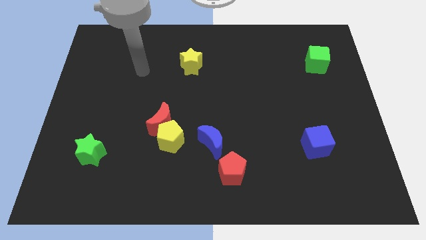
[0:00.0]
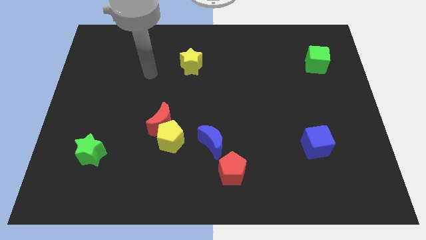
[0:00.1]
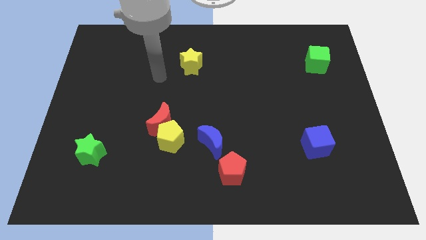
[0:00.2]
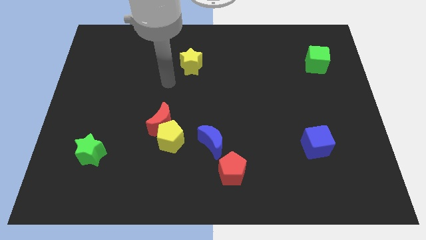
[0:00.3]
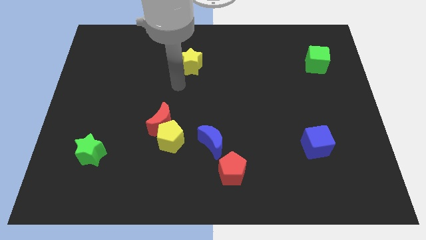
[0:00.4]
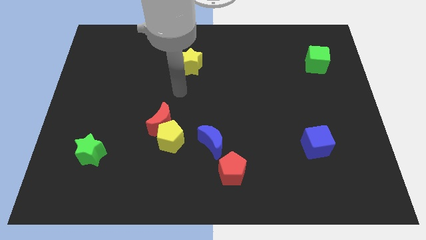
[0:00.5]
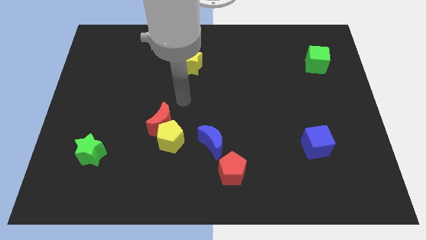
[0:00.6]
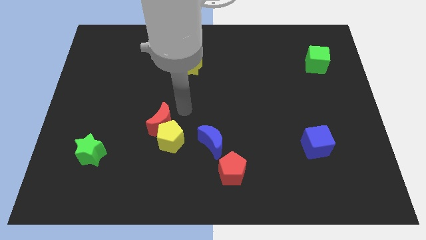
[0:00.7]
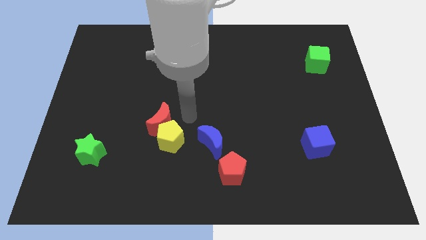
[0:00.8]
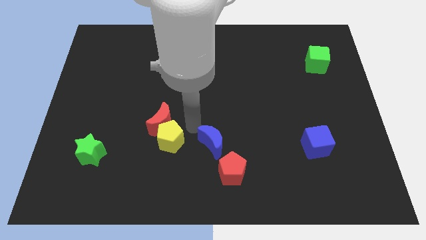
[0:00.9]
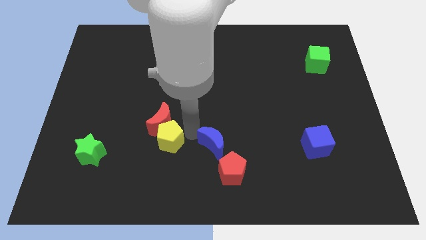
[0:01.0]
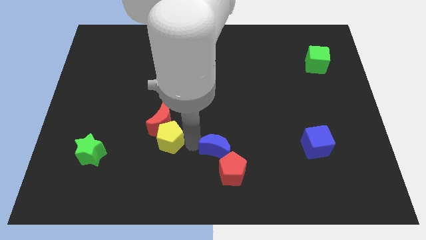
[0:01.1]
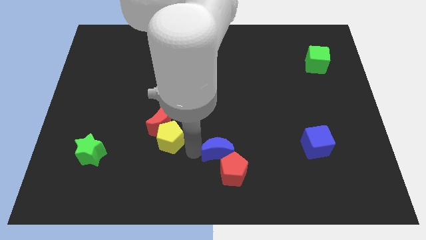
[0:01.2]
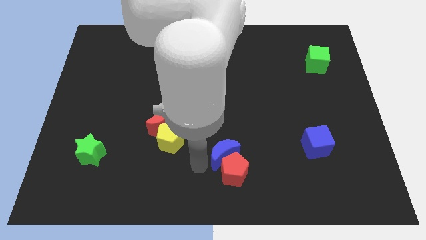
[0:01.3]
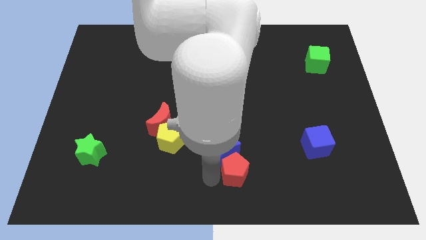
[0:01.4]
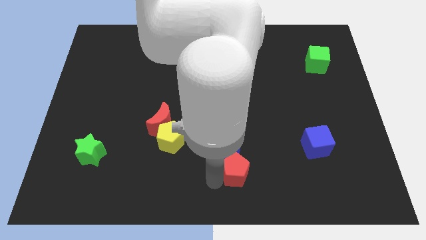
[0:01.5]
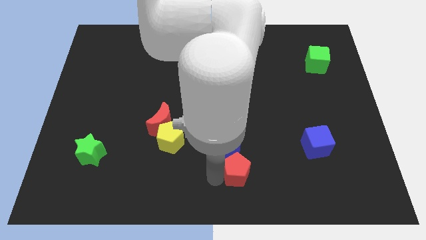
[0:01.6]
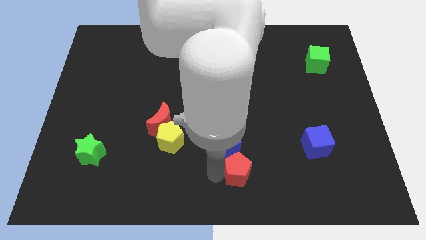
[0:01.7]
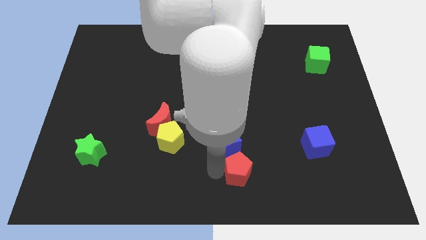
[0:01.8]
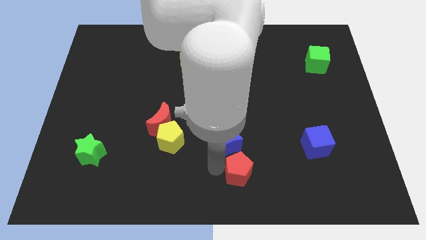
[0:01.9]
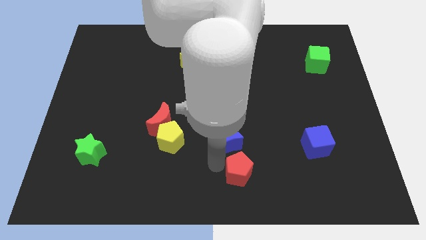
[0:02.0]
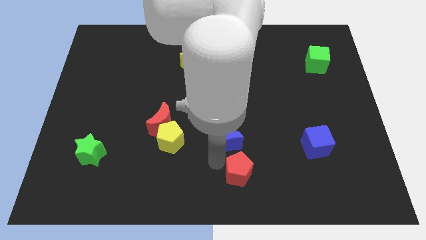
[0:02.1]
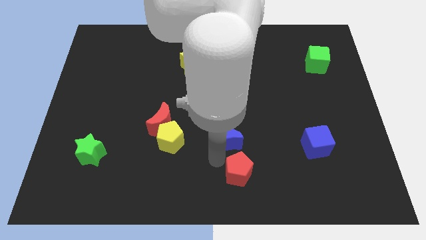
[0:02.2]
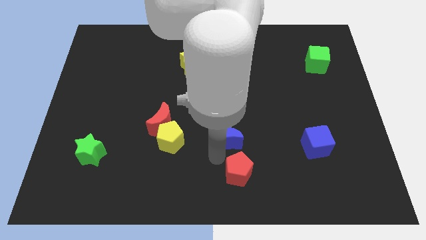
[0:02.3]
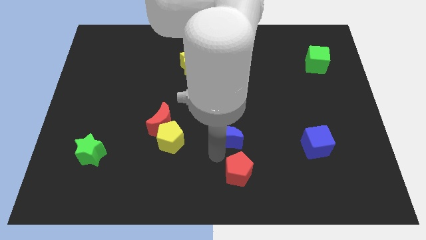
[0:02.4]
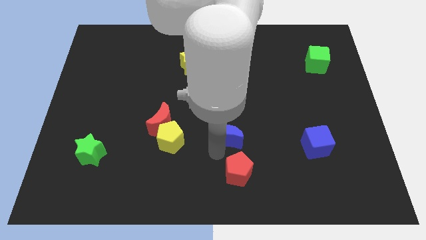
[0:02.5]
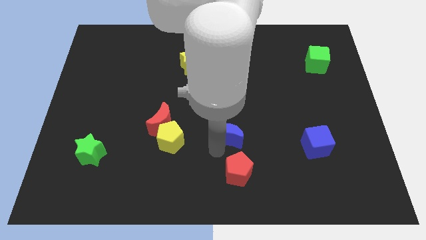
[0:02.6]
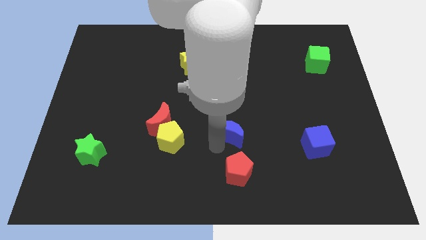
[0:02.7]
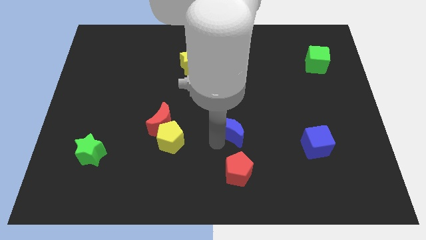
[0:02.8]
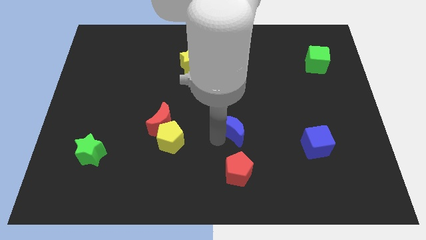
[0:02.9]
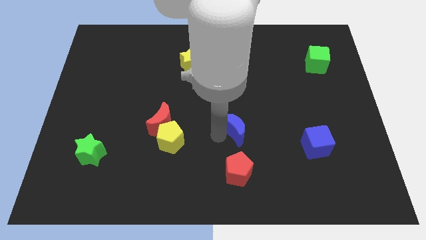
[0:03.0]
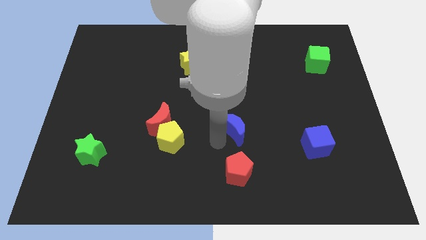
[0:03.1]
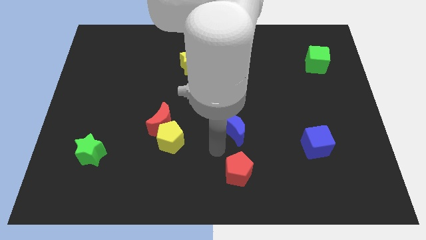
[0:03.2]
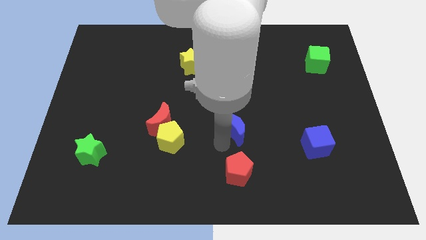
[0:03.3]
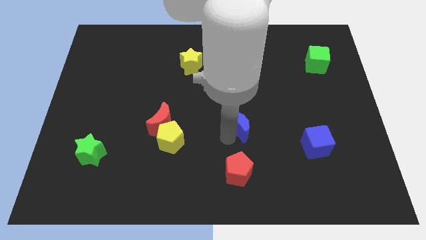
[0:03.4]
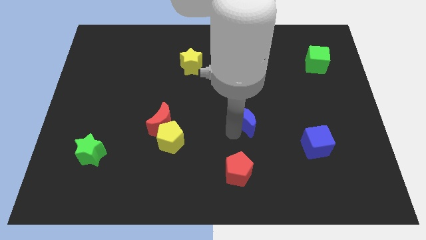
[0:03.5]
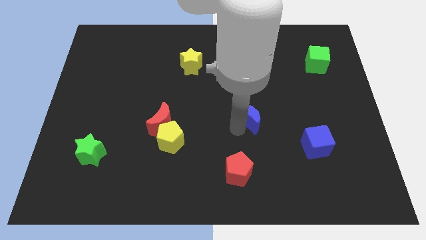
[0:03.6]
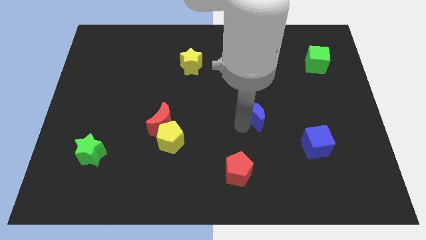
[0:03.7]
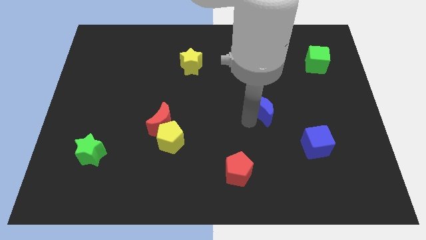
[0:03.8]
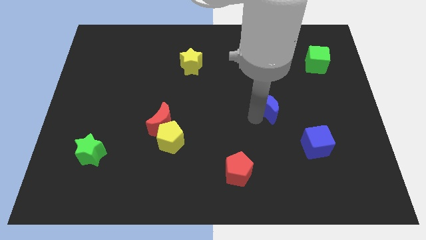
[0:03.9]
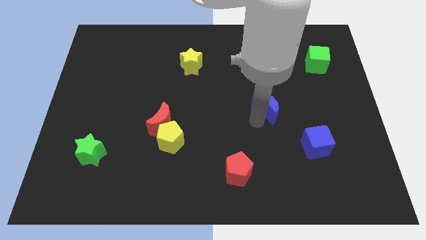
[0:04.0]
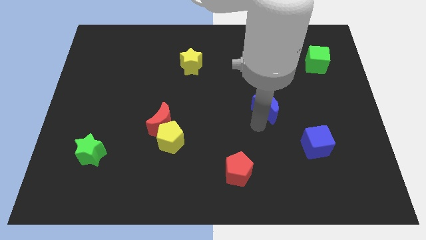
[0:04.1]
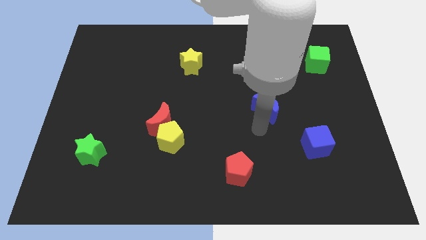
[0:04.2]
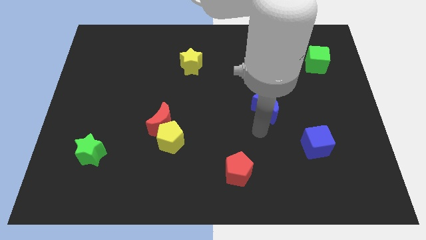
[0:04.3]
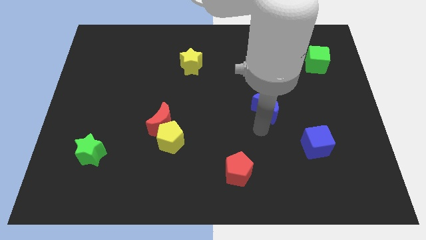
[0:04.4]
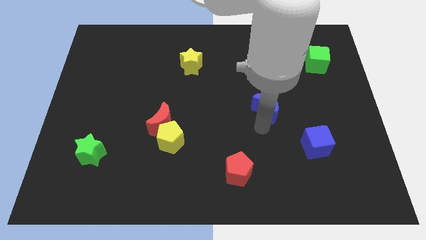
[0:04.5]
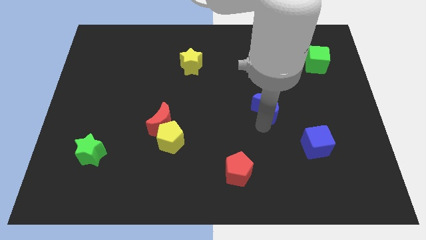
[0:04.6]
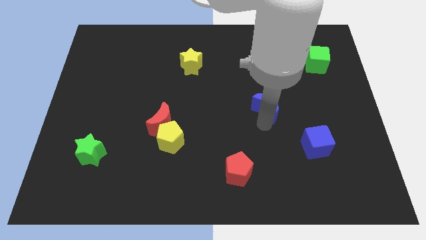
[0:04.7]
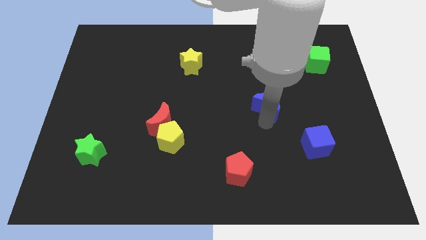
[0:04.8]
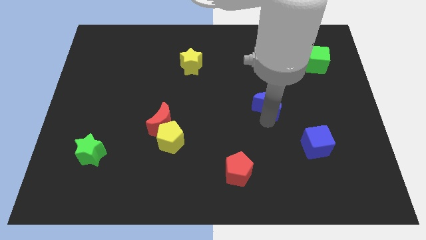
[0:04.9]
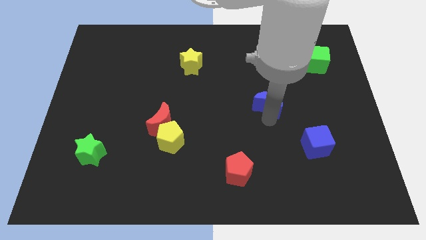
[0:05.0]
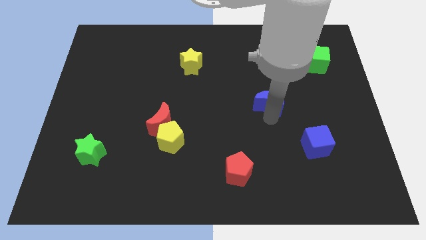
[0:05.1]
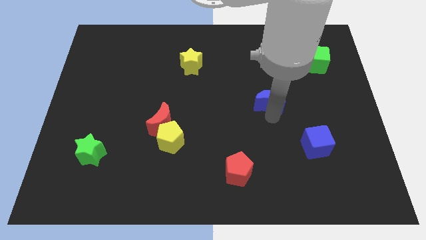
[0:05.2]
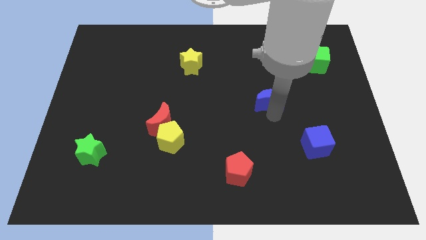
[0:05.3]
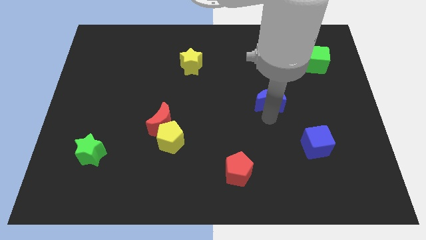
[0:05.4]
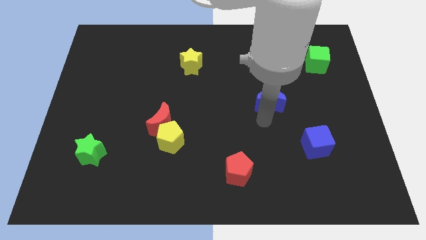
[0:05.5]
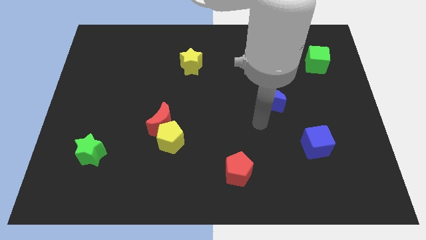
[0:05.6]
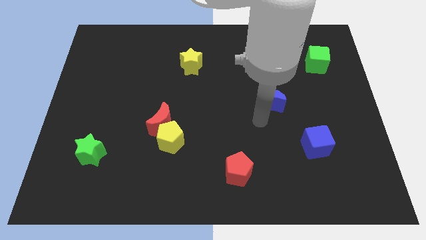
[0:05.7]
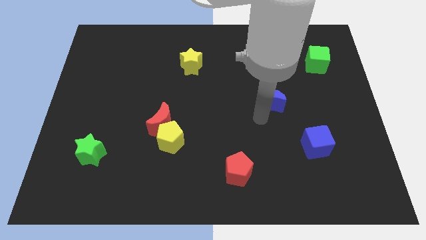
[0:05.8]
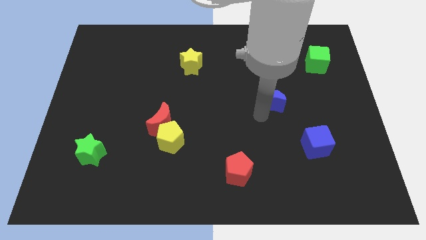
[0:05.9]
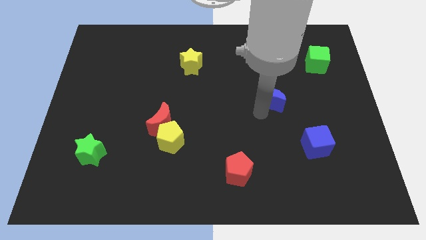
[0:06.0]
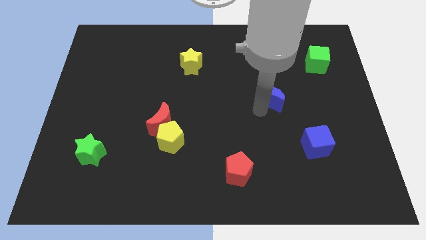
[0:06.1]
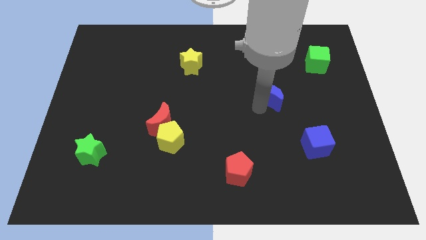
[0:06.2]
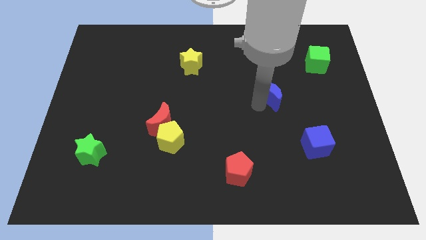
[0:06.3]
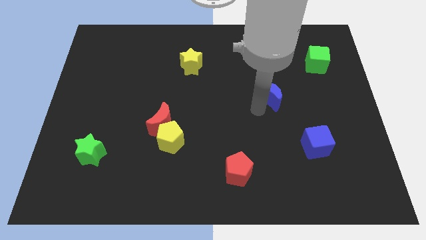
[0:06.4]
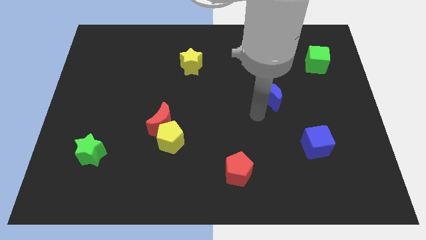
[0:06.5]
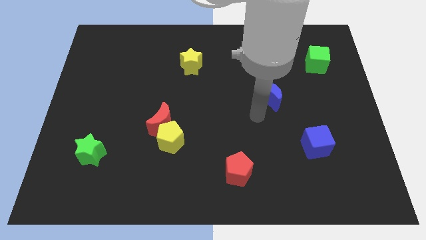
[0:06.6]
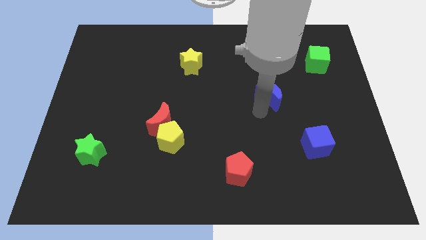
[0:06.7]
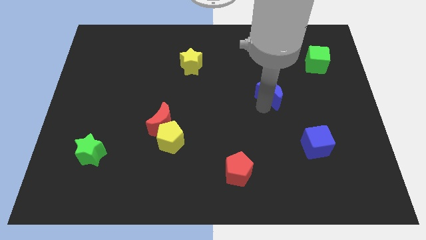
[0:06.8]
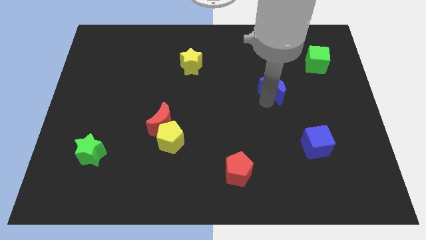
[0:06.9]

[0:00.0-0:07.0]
move the blue moon up and to the right

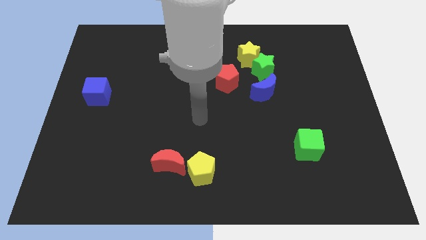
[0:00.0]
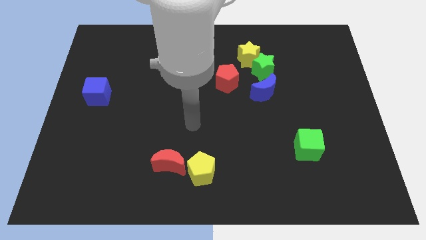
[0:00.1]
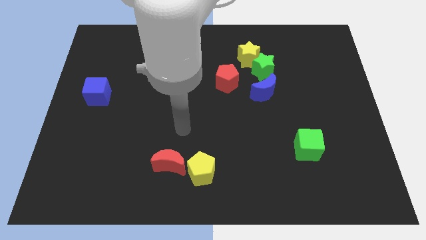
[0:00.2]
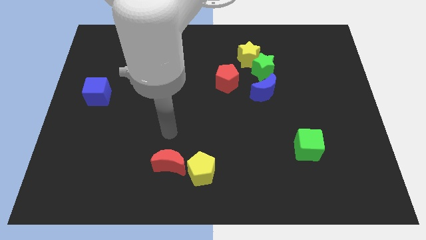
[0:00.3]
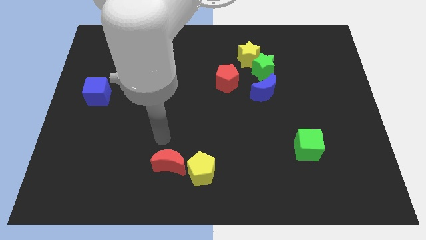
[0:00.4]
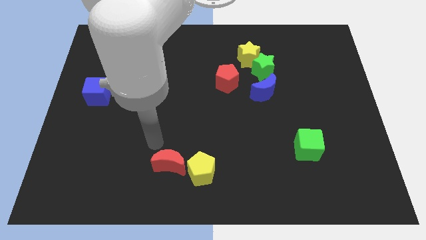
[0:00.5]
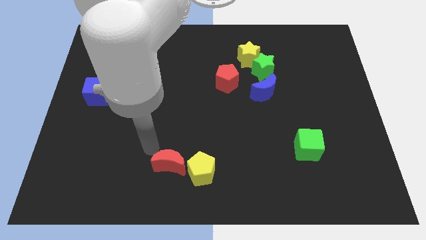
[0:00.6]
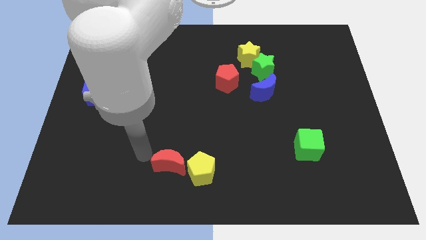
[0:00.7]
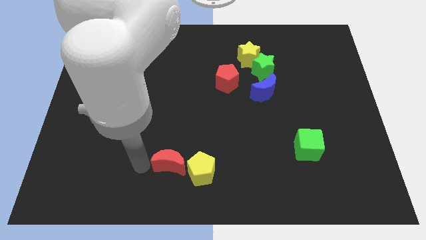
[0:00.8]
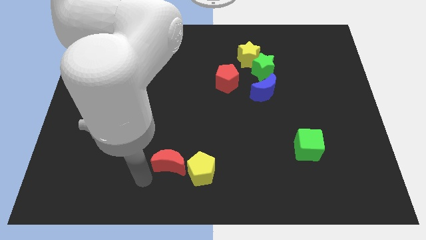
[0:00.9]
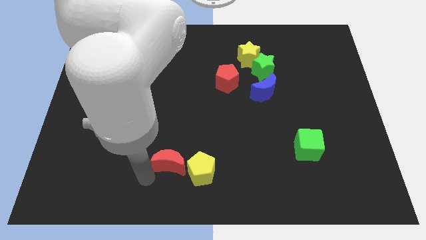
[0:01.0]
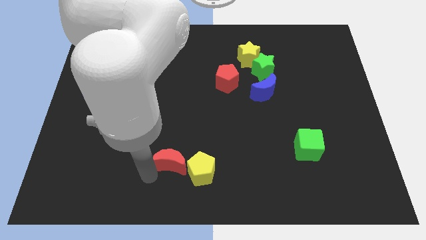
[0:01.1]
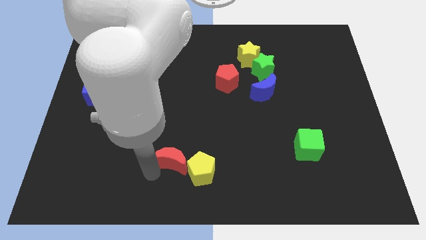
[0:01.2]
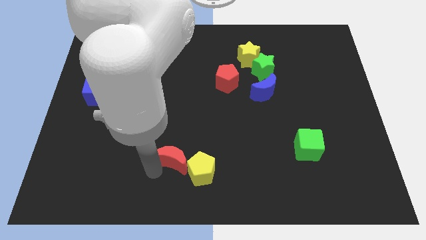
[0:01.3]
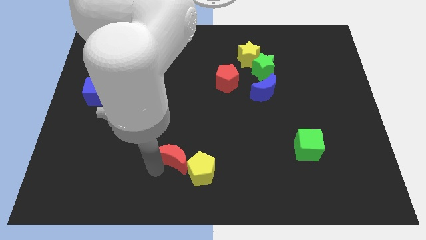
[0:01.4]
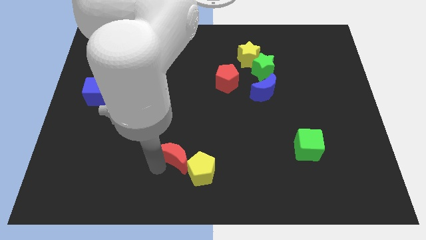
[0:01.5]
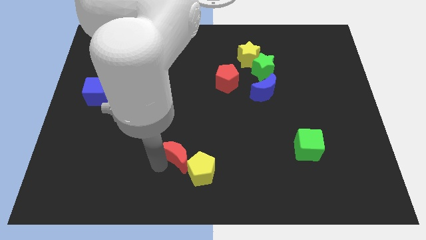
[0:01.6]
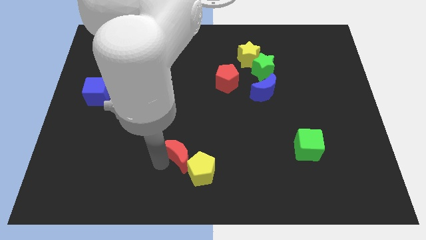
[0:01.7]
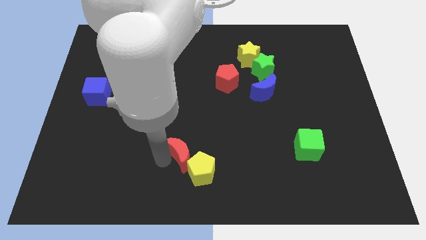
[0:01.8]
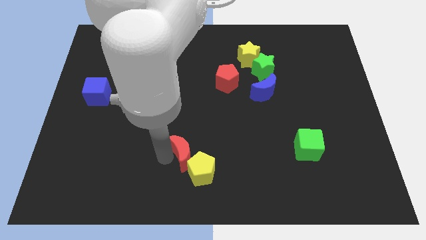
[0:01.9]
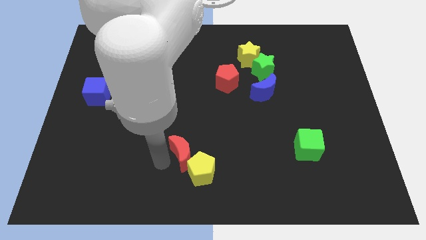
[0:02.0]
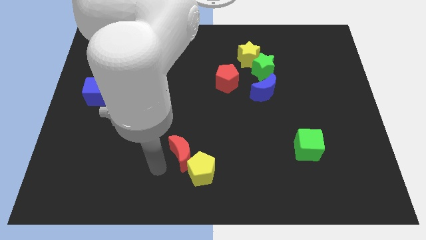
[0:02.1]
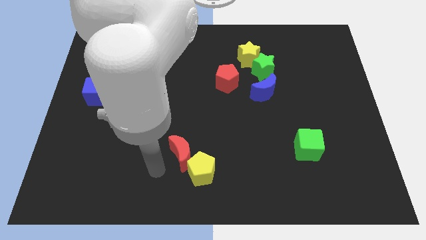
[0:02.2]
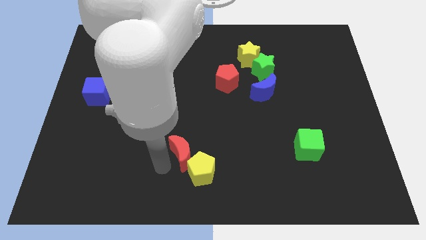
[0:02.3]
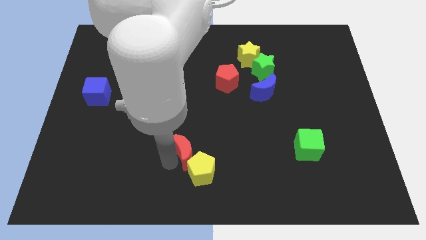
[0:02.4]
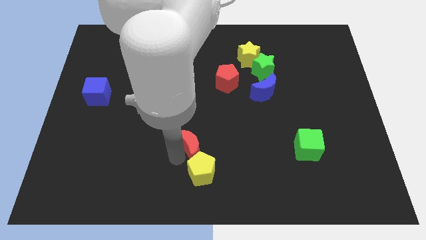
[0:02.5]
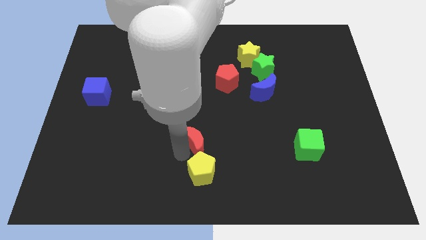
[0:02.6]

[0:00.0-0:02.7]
move the red moon slightly up and then right
